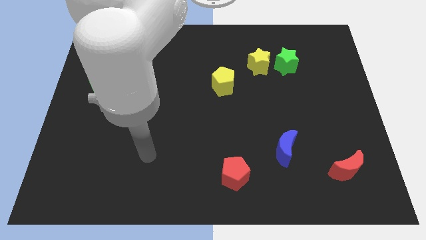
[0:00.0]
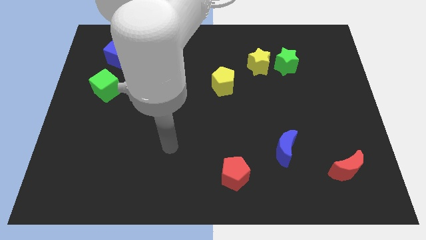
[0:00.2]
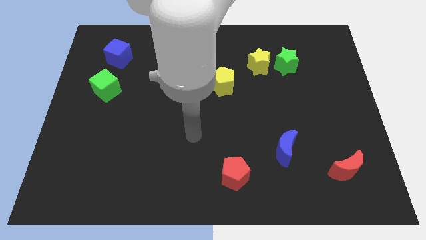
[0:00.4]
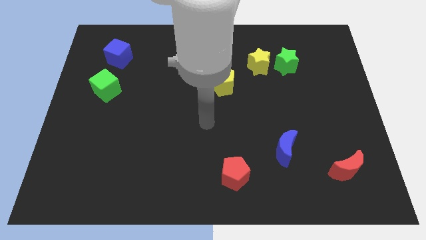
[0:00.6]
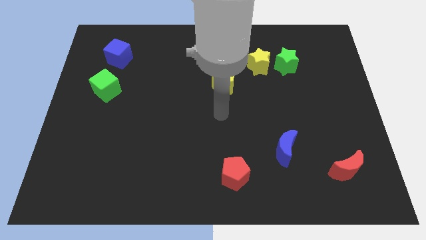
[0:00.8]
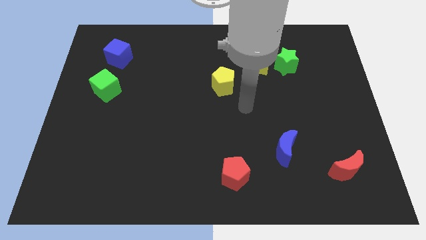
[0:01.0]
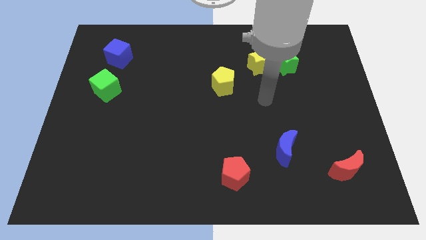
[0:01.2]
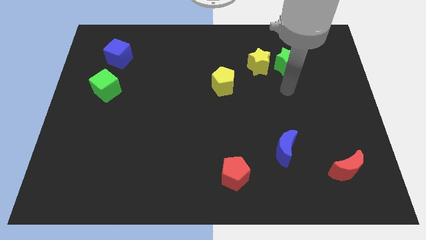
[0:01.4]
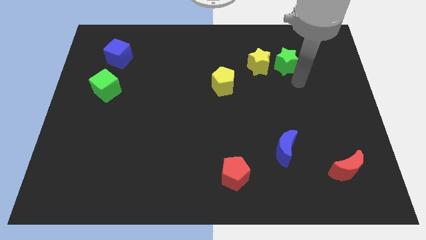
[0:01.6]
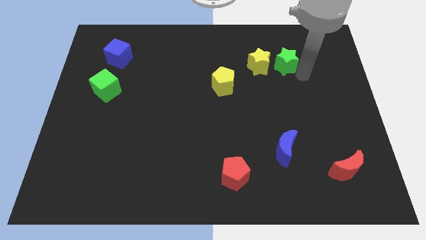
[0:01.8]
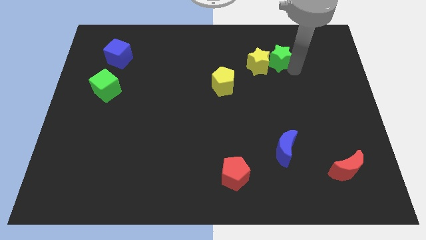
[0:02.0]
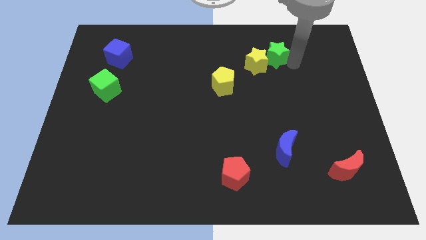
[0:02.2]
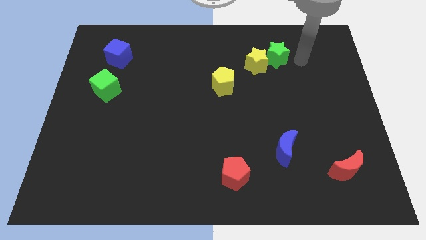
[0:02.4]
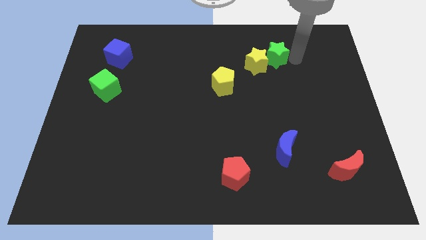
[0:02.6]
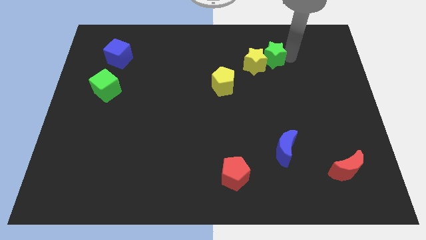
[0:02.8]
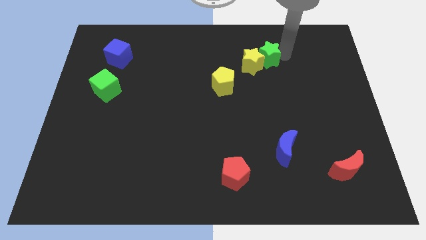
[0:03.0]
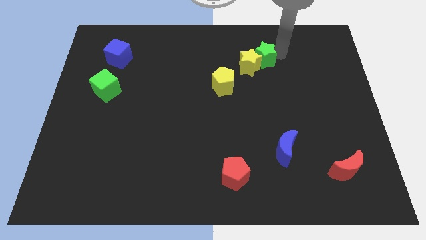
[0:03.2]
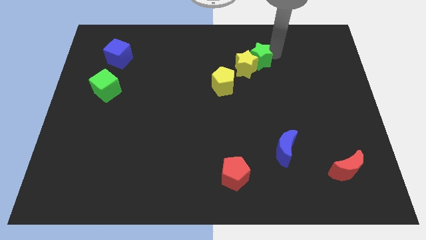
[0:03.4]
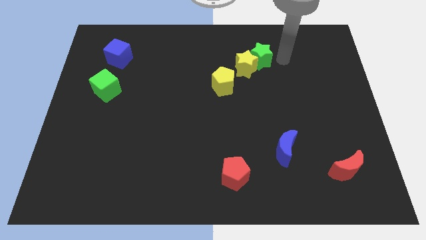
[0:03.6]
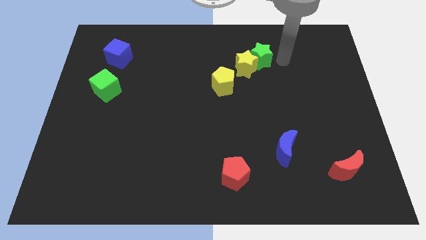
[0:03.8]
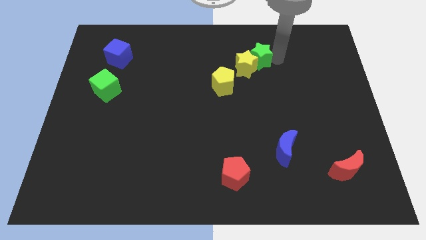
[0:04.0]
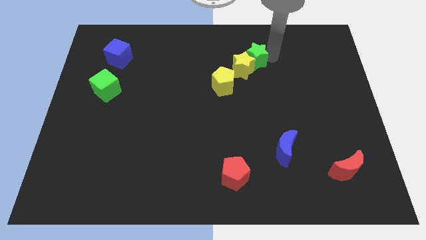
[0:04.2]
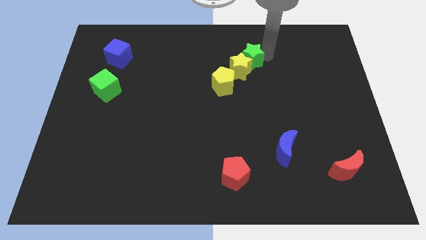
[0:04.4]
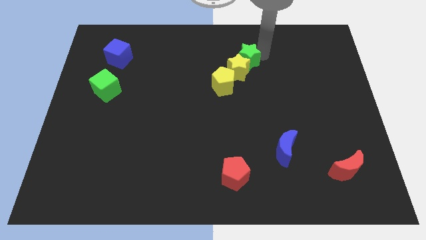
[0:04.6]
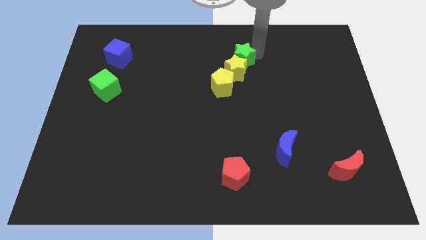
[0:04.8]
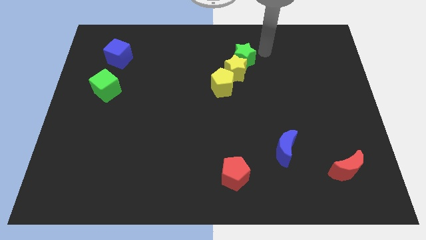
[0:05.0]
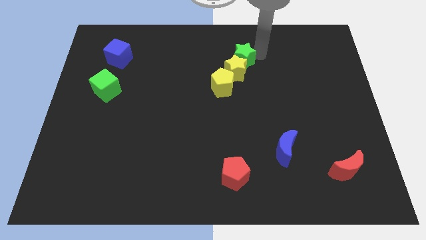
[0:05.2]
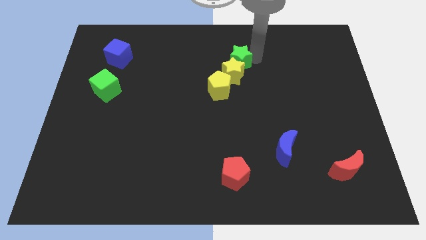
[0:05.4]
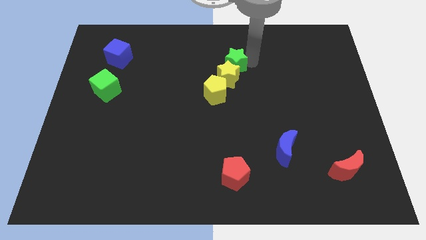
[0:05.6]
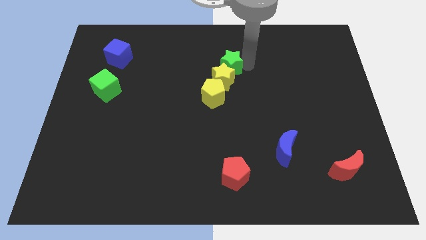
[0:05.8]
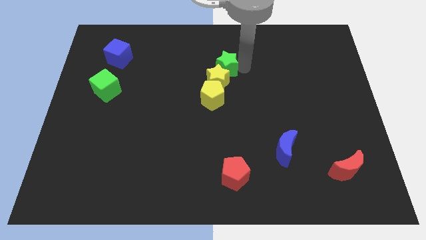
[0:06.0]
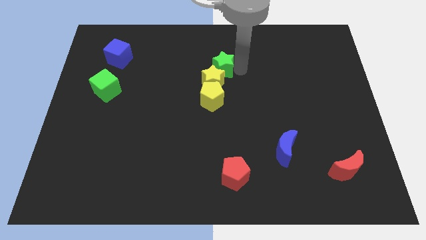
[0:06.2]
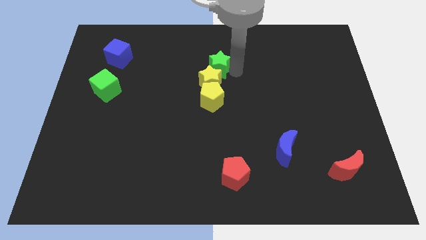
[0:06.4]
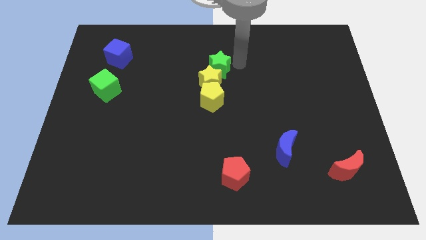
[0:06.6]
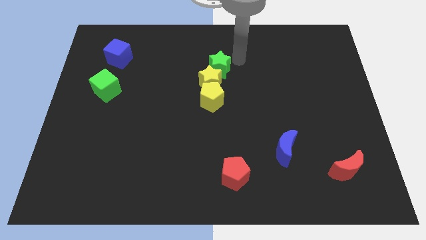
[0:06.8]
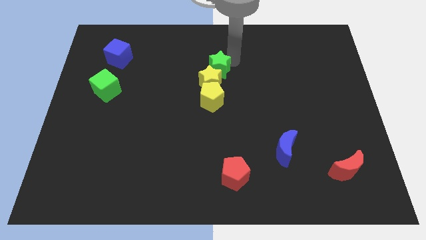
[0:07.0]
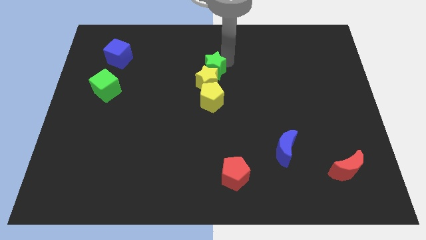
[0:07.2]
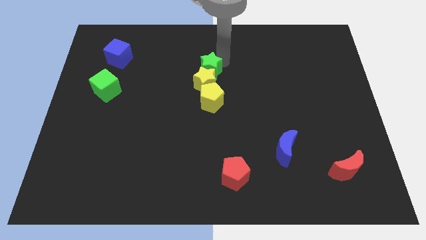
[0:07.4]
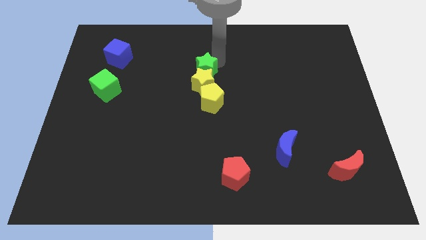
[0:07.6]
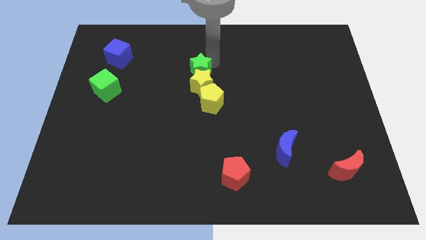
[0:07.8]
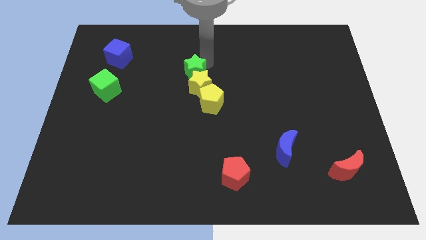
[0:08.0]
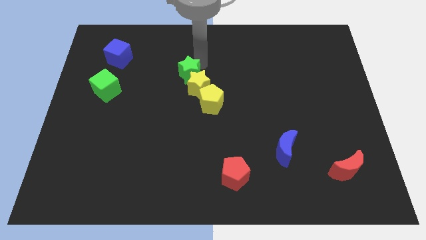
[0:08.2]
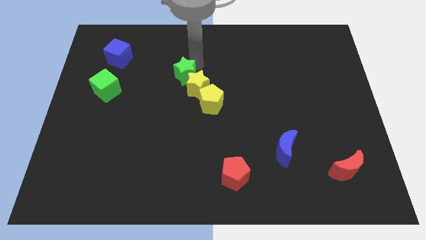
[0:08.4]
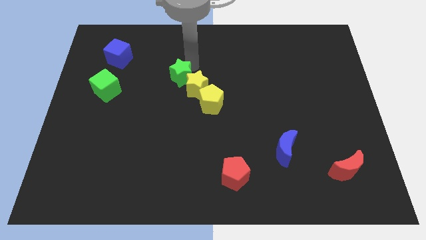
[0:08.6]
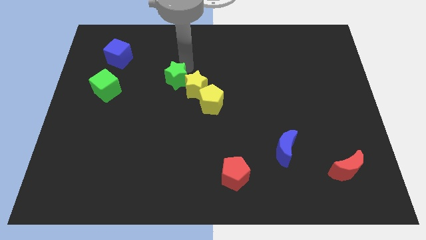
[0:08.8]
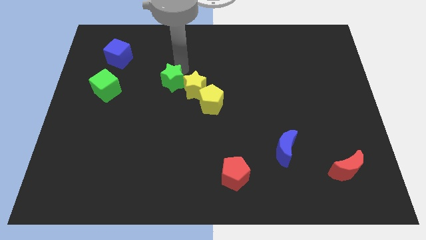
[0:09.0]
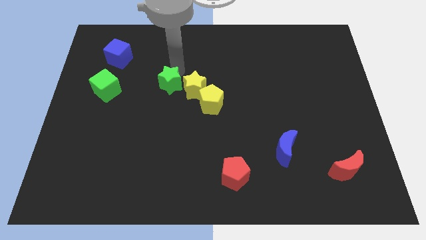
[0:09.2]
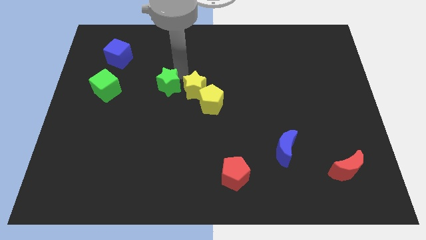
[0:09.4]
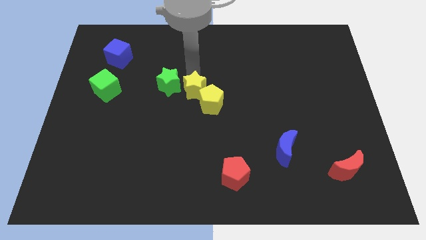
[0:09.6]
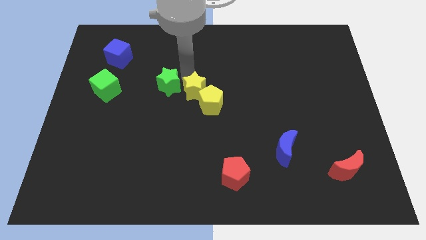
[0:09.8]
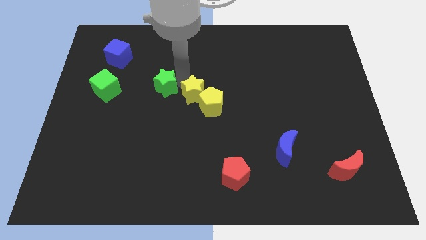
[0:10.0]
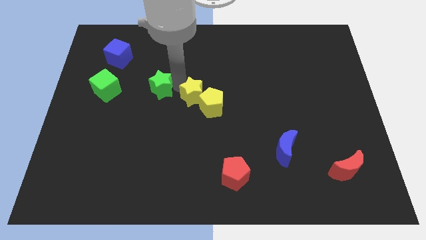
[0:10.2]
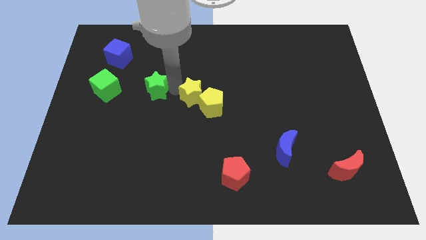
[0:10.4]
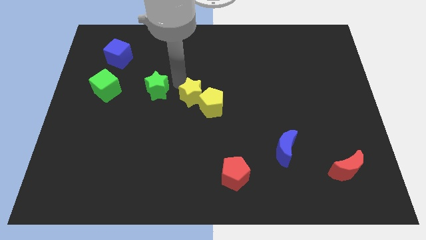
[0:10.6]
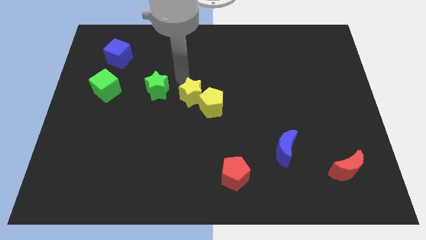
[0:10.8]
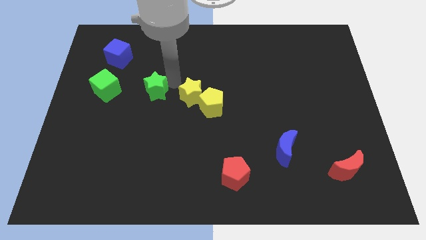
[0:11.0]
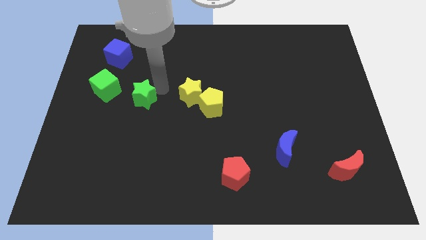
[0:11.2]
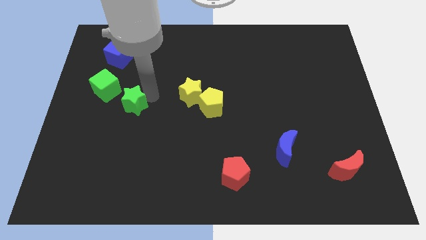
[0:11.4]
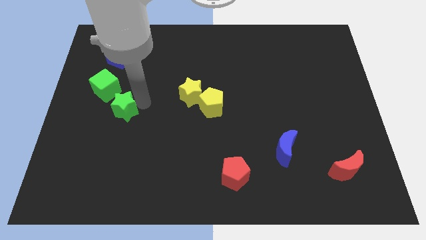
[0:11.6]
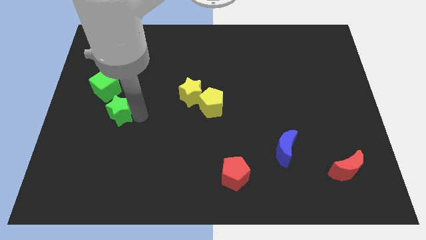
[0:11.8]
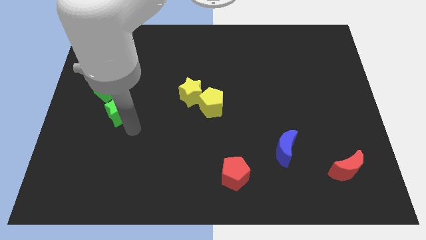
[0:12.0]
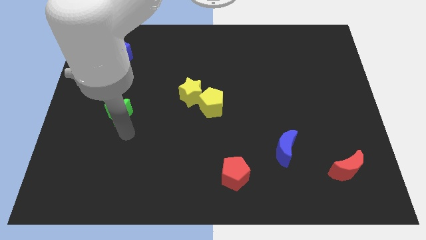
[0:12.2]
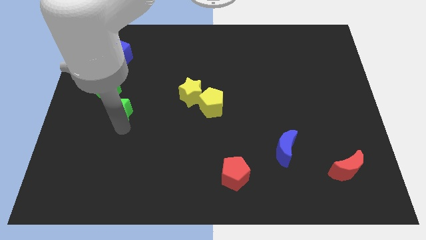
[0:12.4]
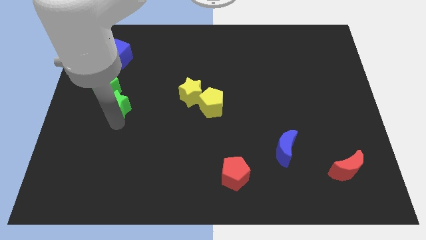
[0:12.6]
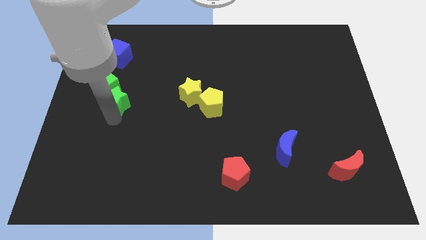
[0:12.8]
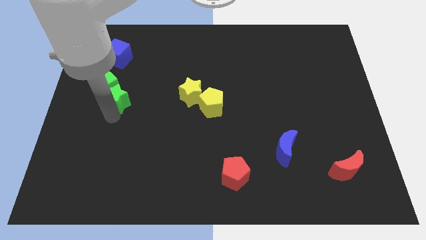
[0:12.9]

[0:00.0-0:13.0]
push the green star below the blue cube
